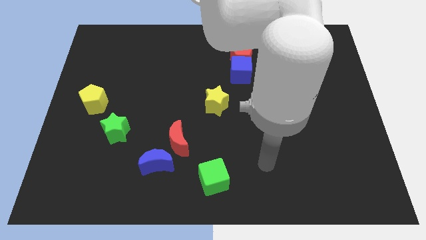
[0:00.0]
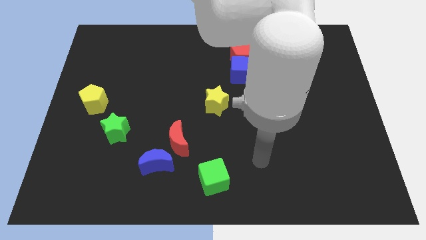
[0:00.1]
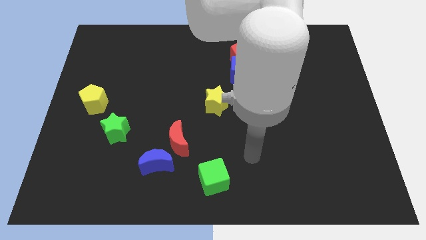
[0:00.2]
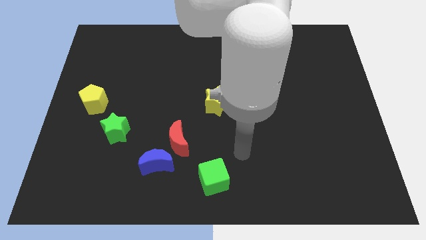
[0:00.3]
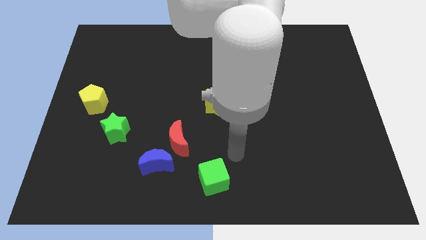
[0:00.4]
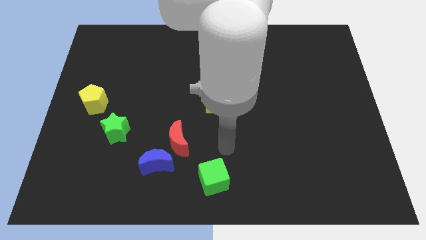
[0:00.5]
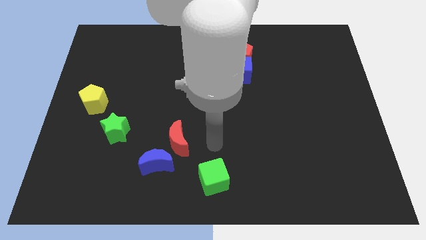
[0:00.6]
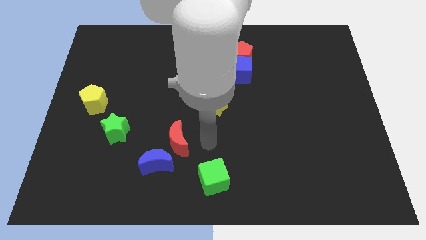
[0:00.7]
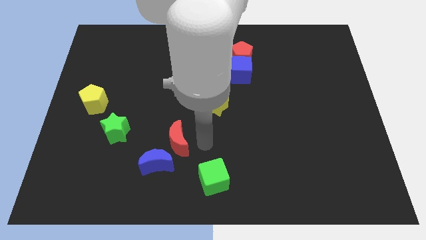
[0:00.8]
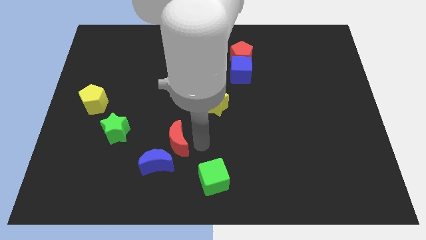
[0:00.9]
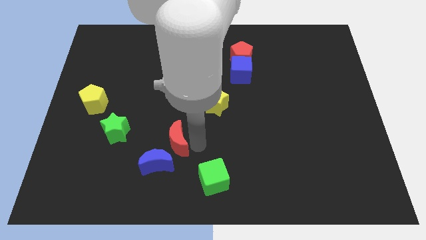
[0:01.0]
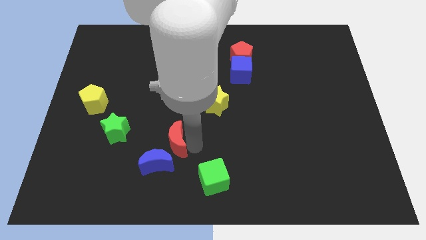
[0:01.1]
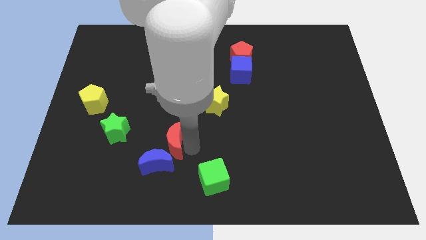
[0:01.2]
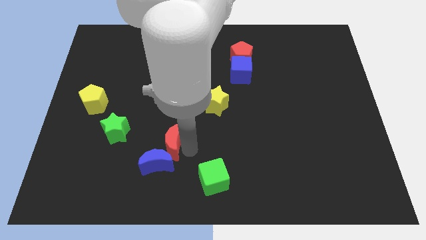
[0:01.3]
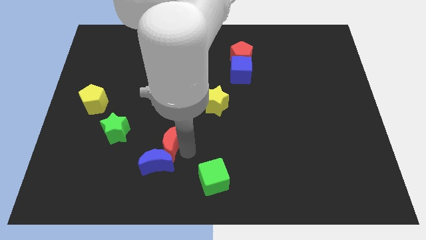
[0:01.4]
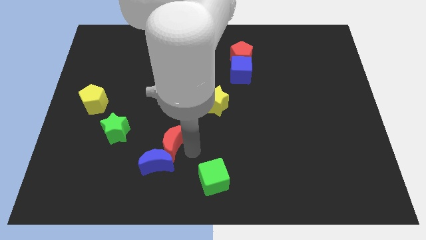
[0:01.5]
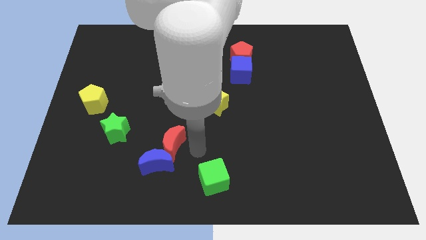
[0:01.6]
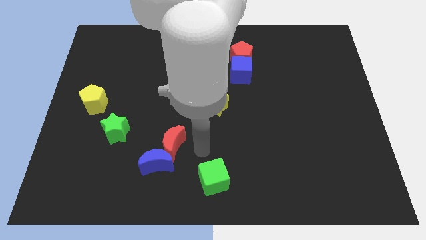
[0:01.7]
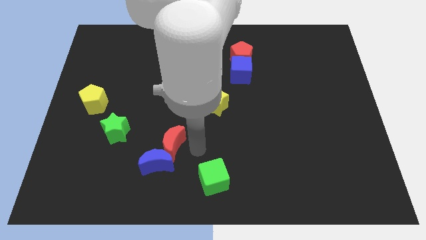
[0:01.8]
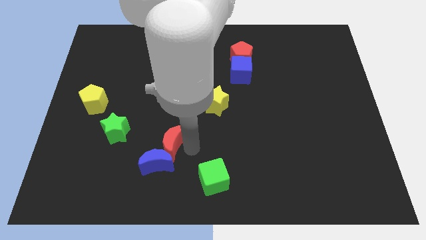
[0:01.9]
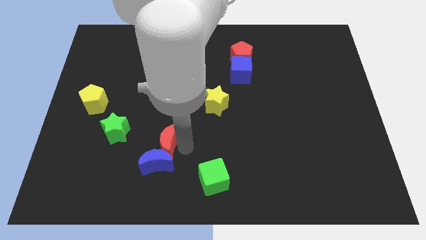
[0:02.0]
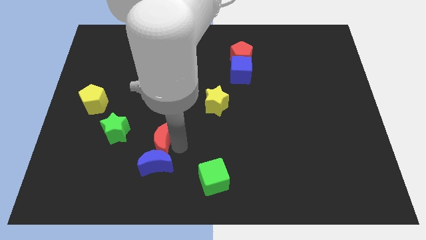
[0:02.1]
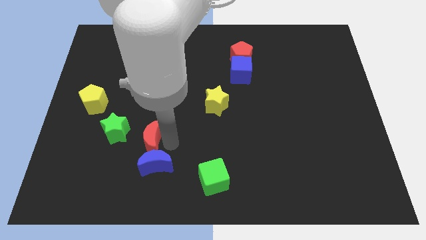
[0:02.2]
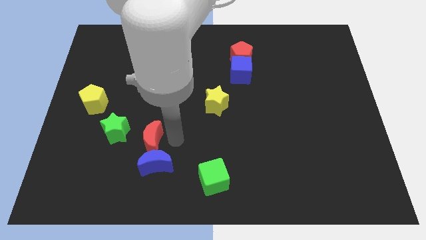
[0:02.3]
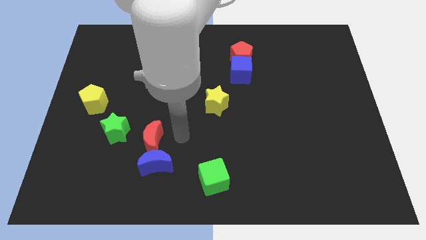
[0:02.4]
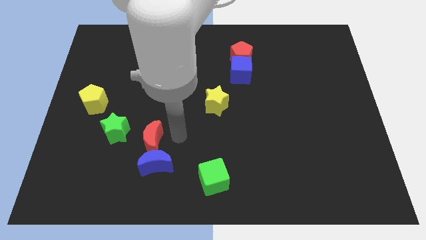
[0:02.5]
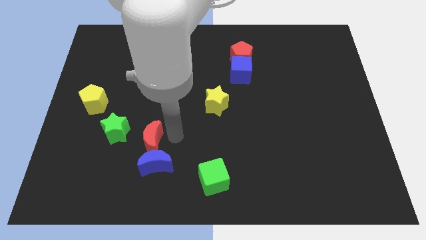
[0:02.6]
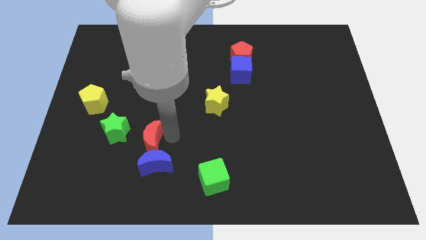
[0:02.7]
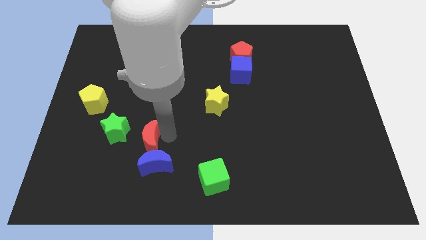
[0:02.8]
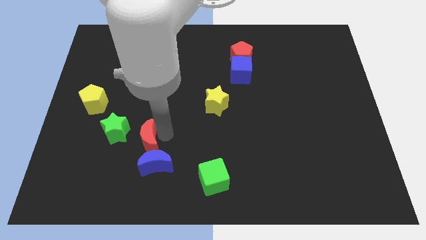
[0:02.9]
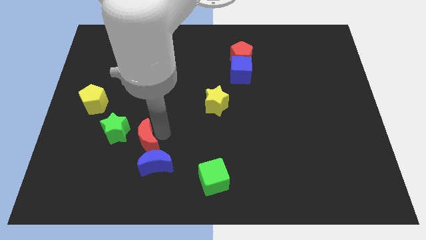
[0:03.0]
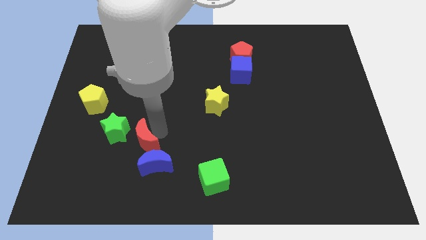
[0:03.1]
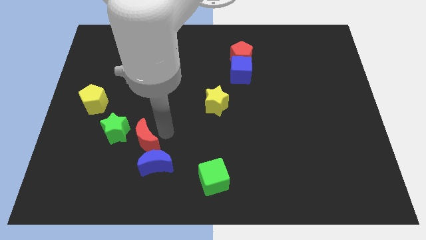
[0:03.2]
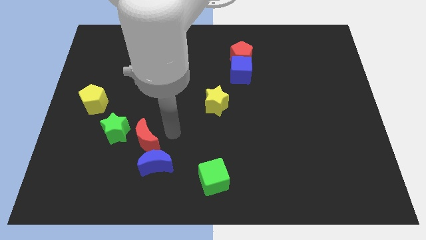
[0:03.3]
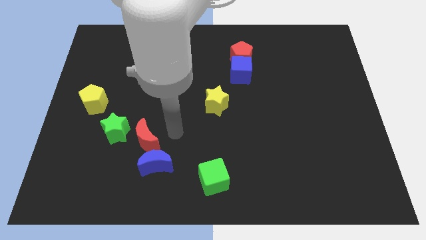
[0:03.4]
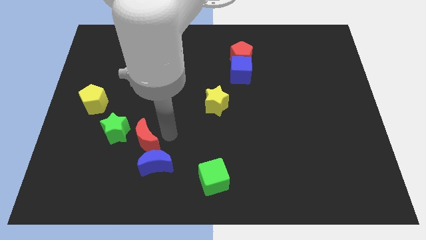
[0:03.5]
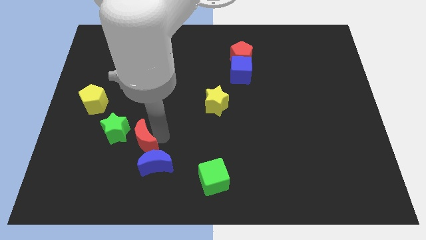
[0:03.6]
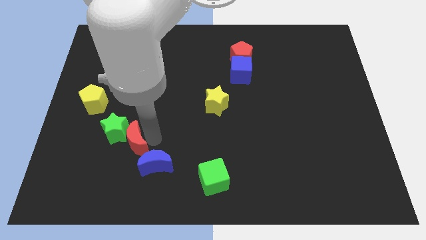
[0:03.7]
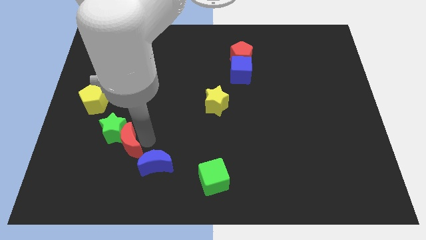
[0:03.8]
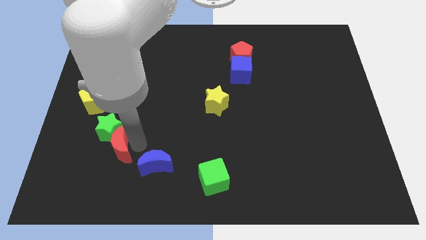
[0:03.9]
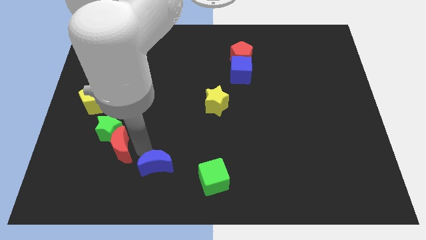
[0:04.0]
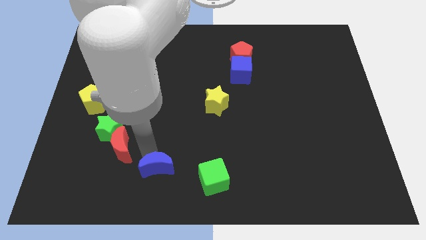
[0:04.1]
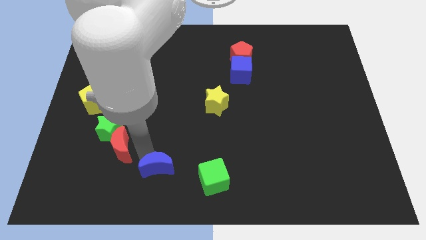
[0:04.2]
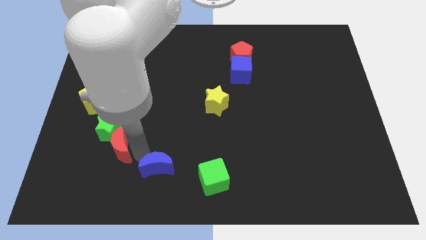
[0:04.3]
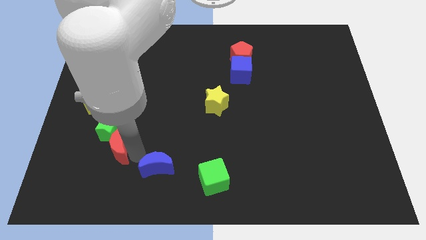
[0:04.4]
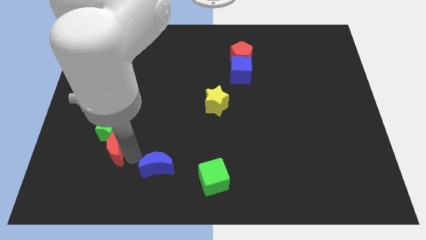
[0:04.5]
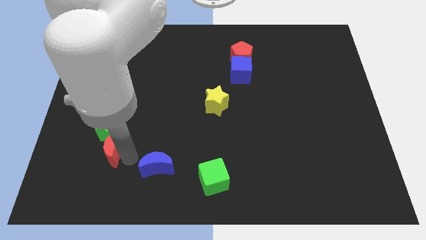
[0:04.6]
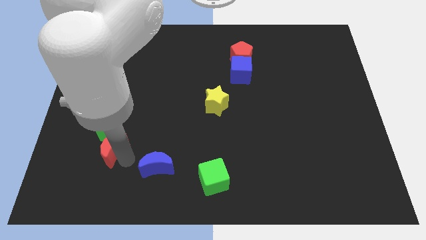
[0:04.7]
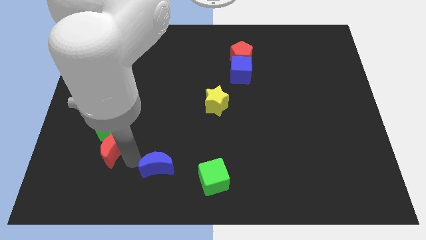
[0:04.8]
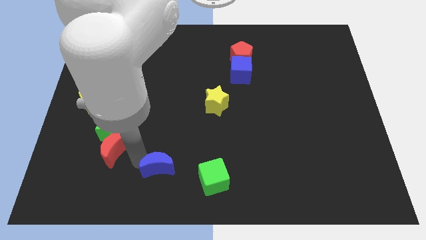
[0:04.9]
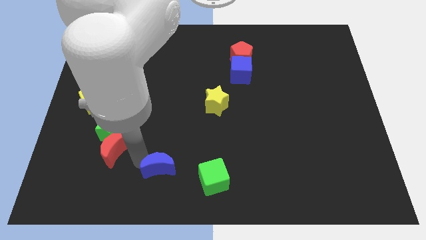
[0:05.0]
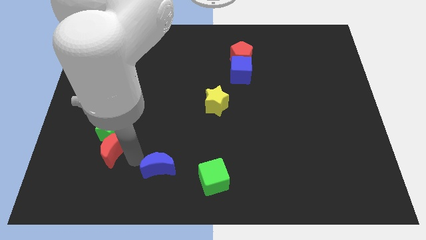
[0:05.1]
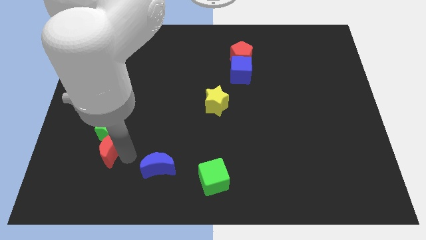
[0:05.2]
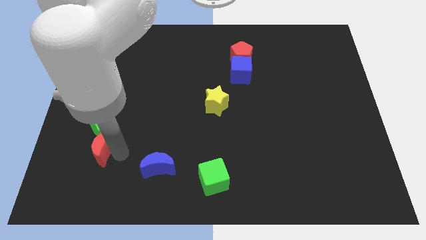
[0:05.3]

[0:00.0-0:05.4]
move the red moon to the bottom of the yellow pentagon
